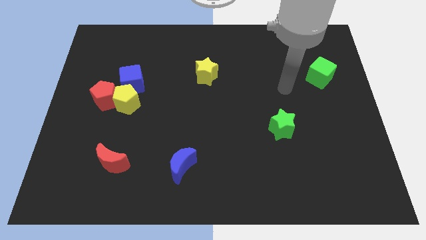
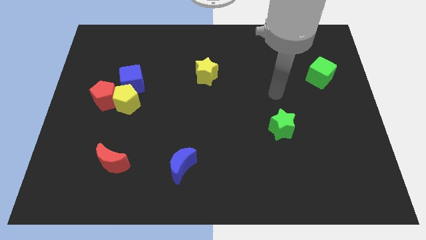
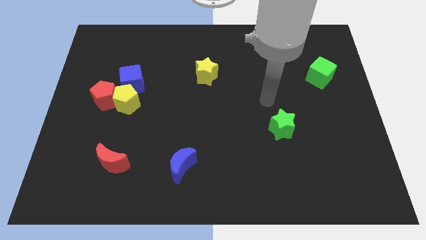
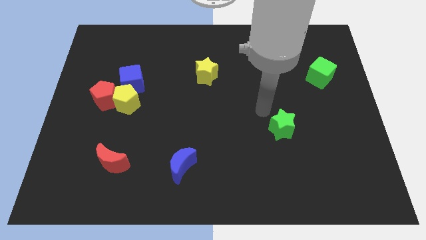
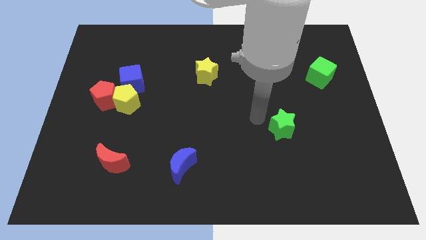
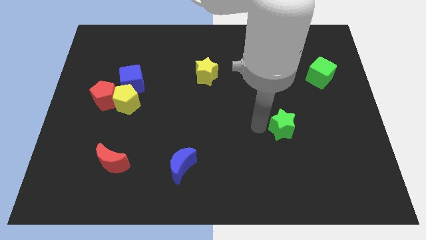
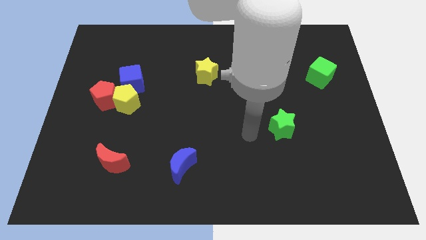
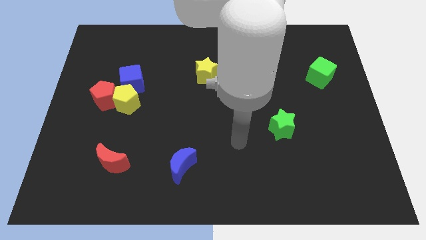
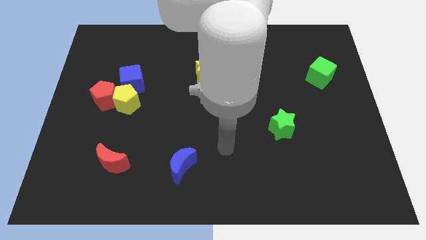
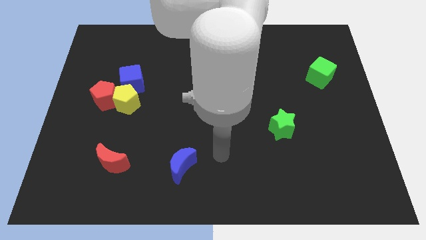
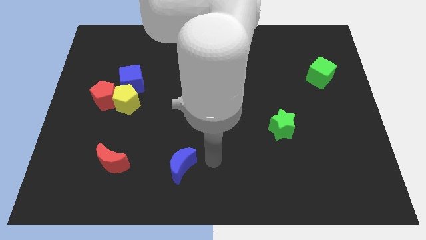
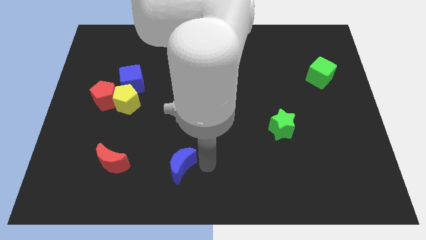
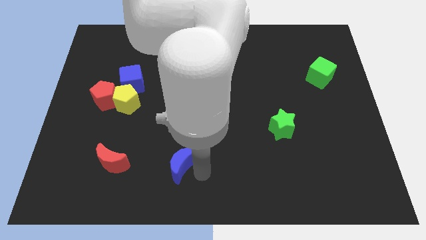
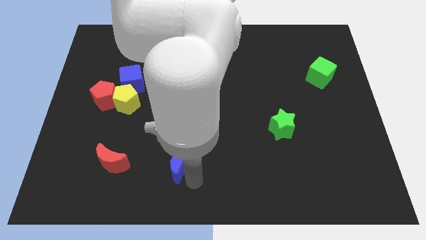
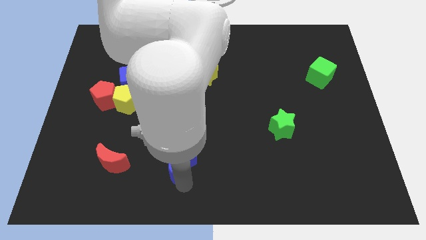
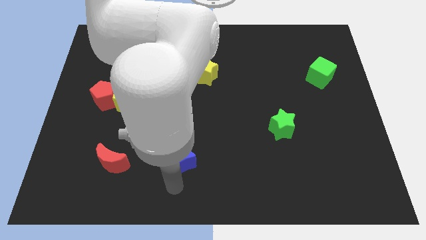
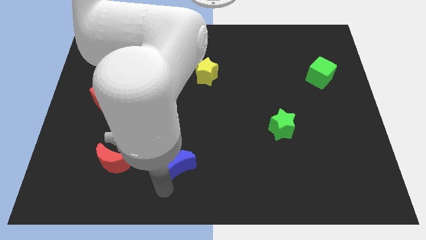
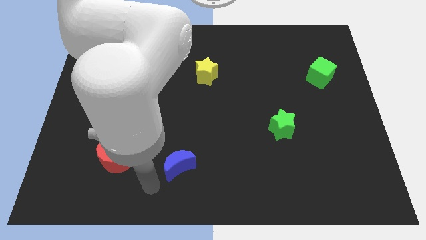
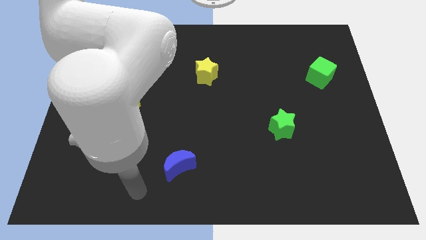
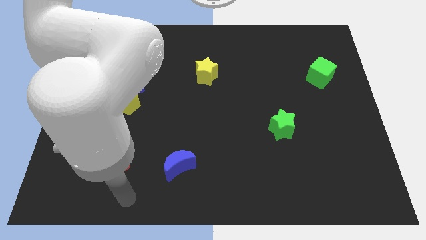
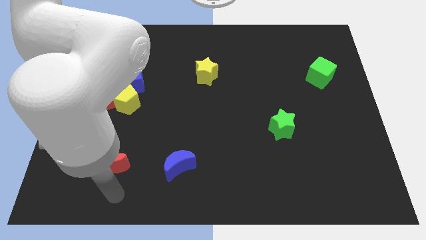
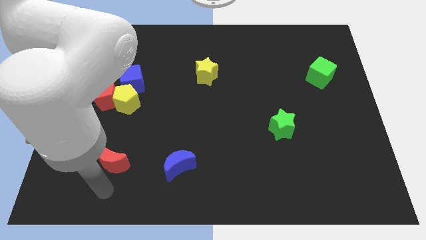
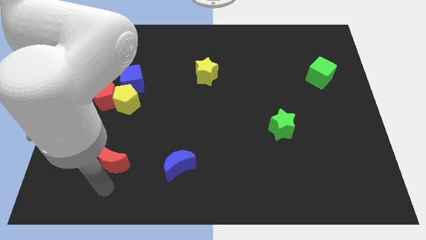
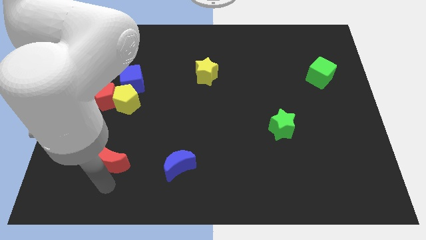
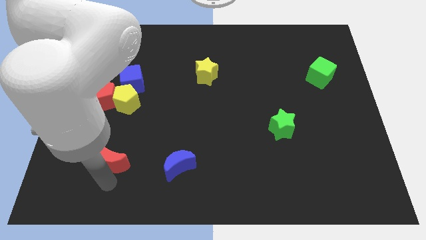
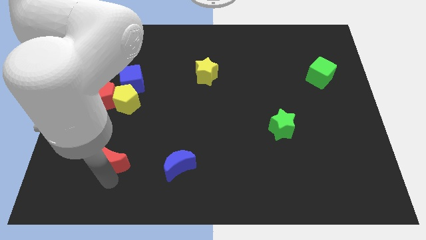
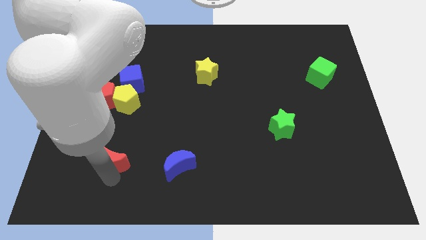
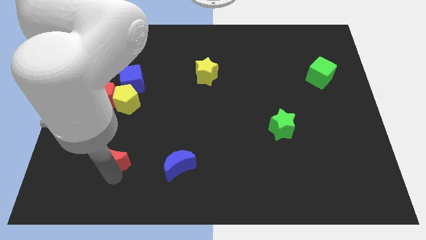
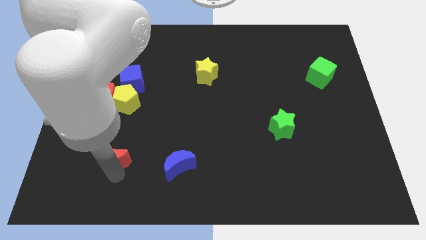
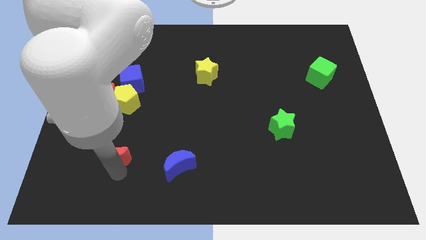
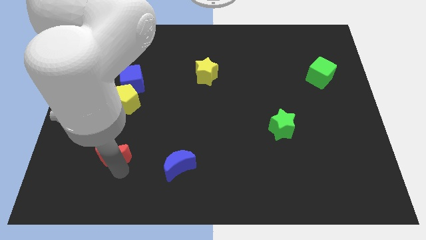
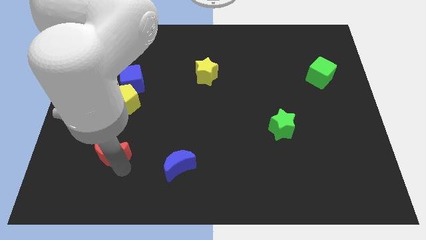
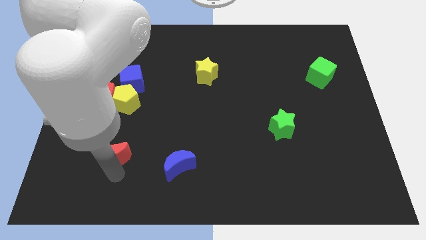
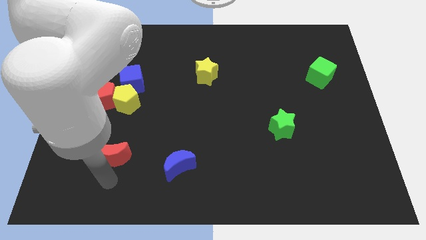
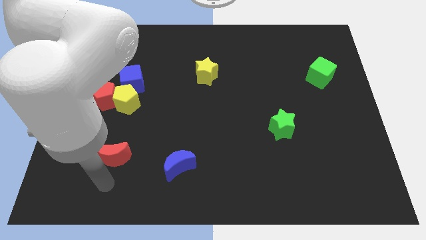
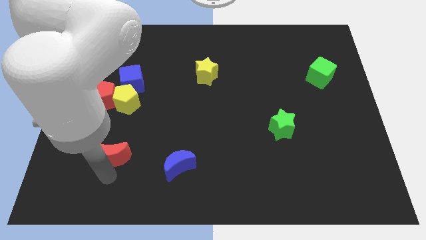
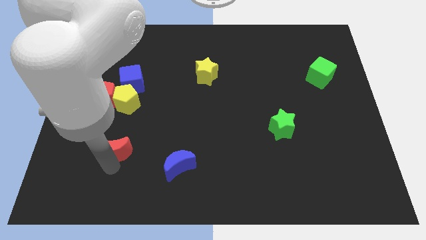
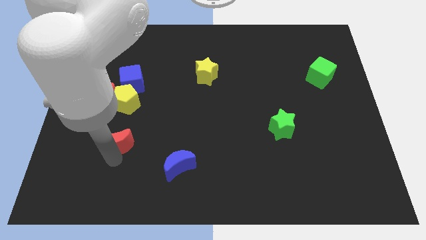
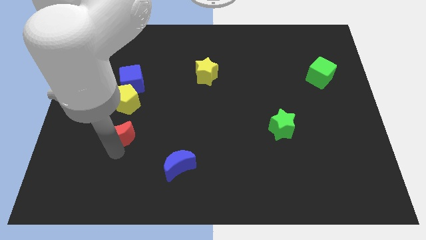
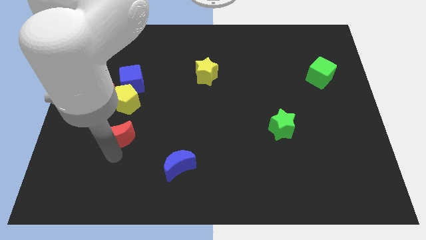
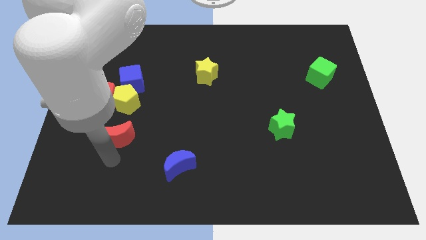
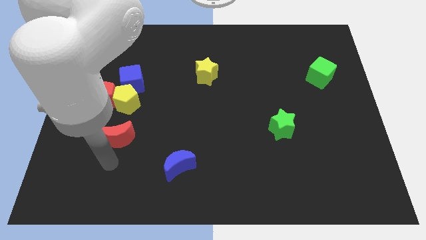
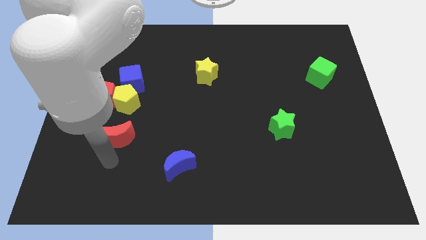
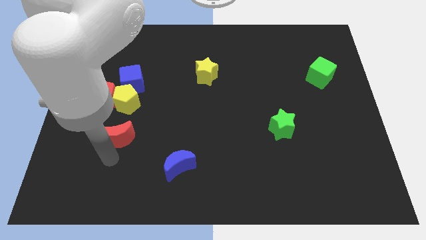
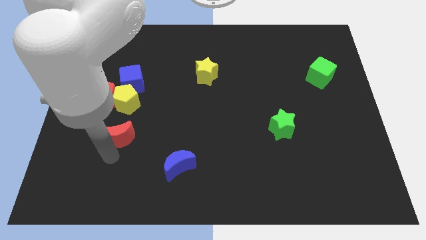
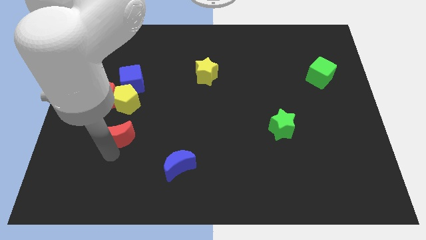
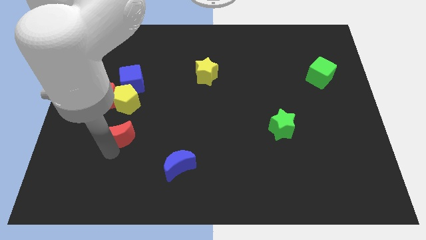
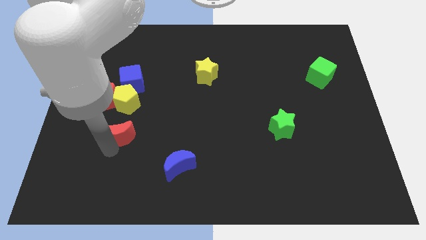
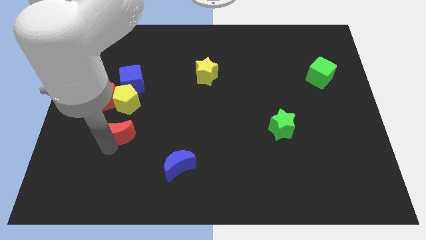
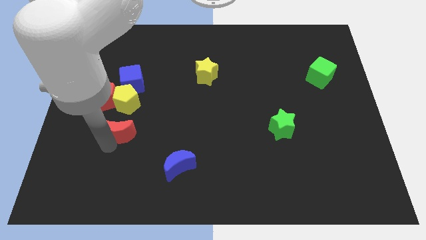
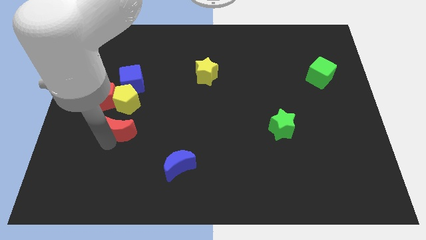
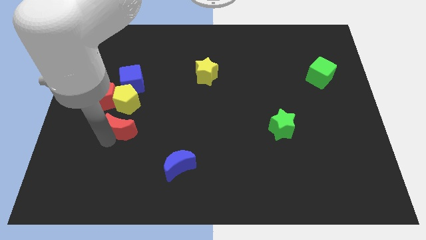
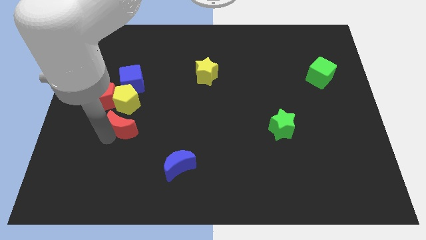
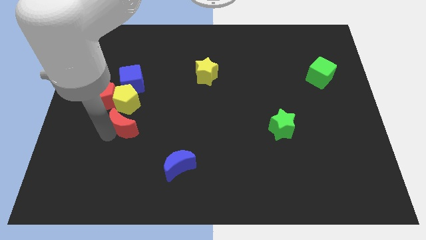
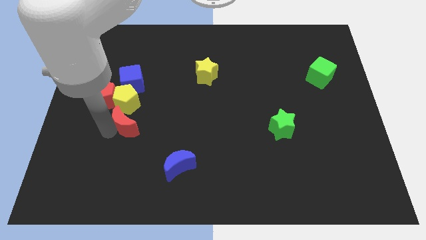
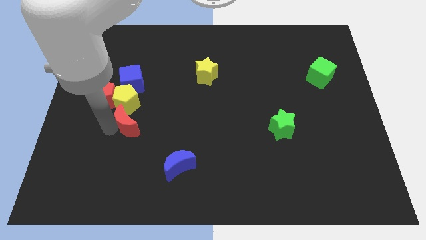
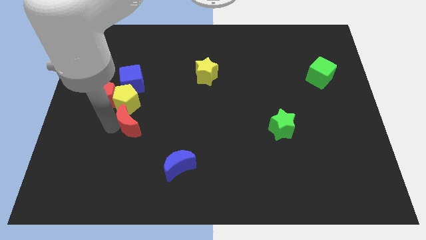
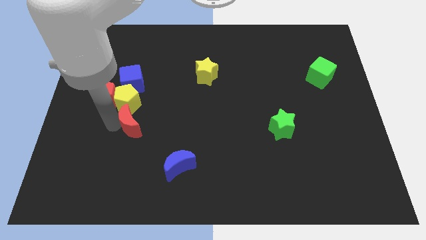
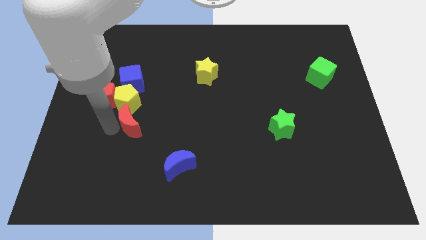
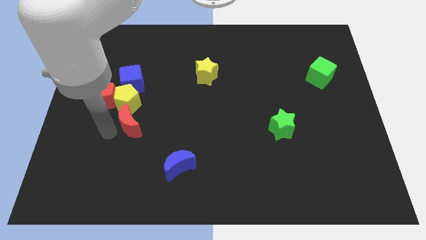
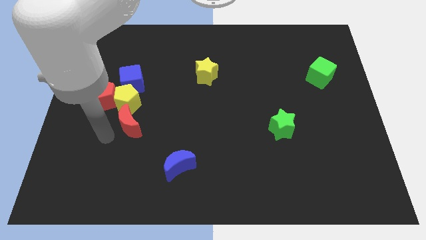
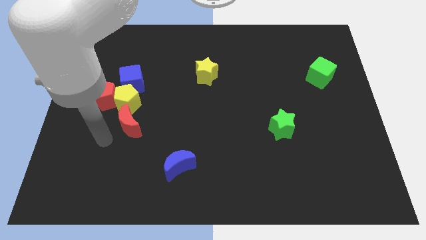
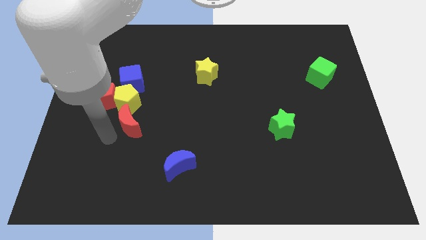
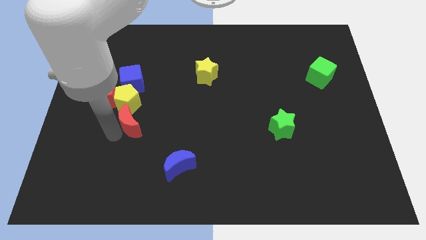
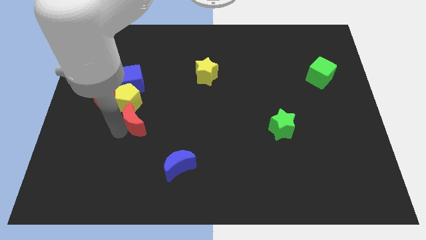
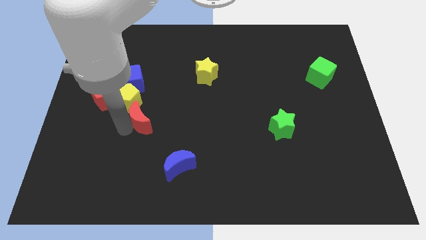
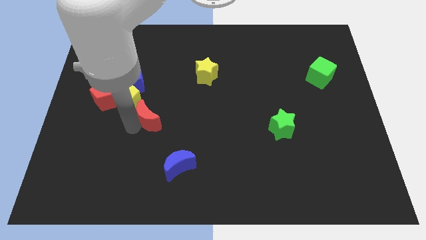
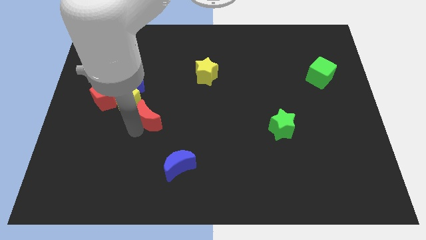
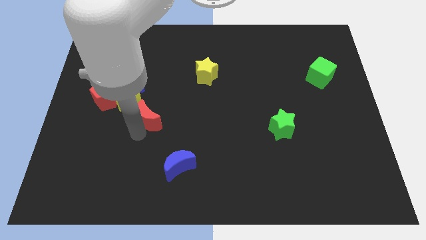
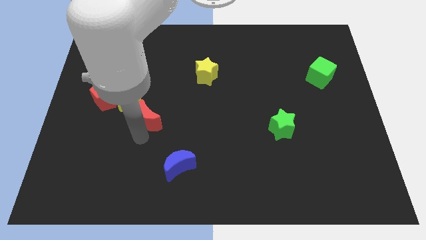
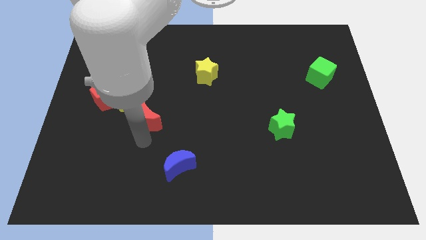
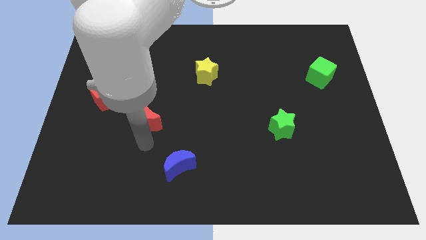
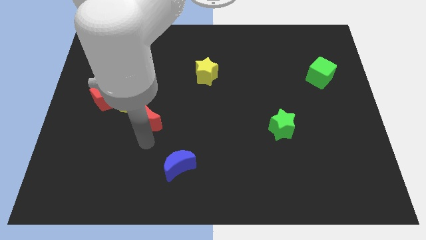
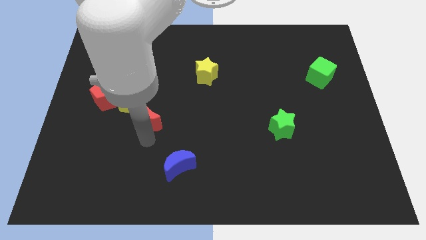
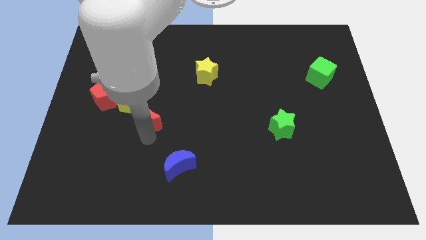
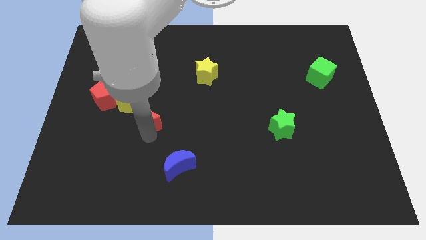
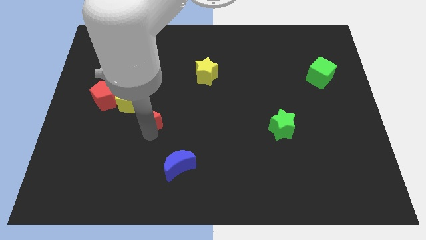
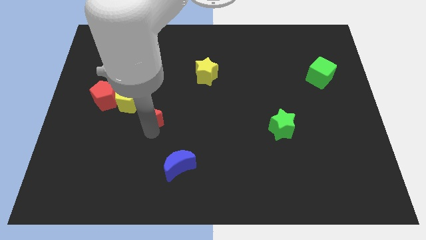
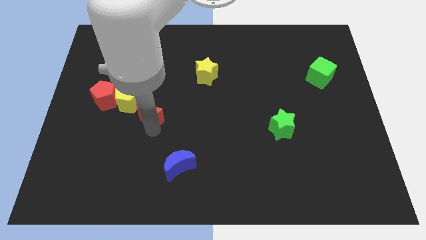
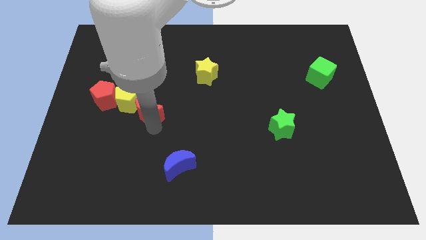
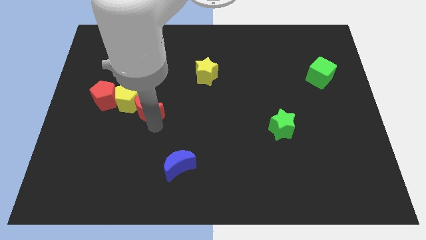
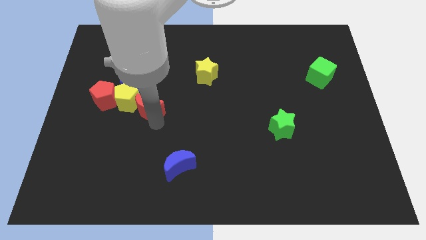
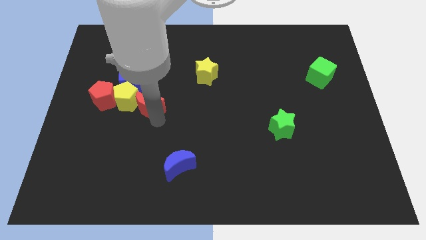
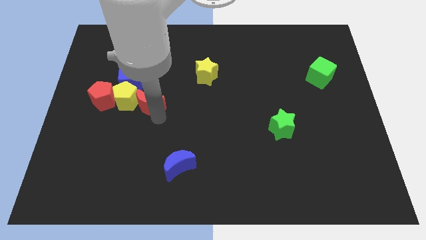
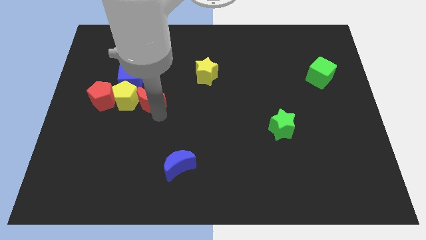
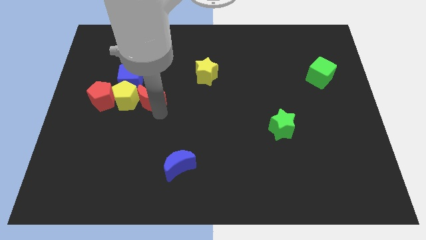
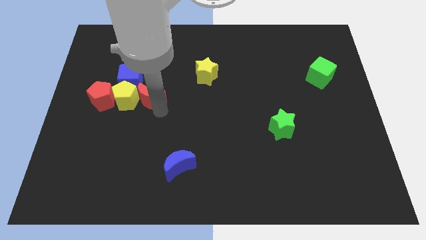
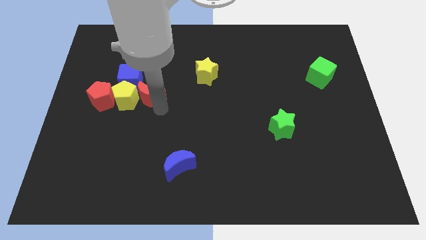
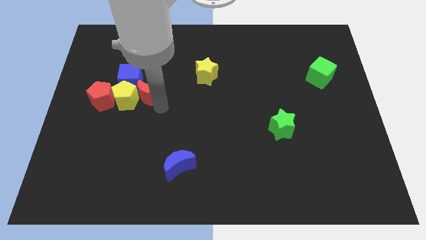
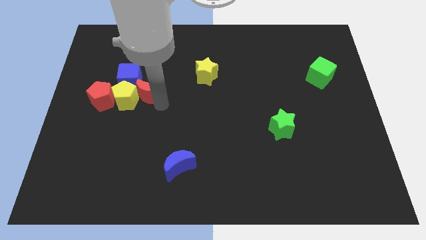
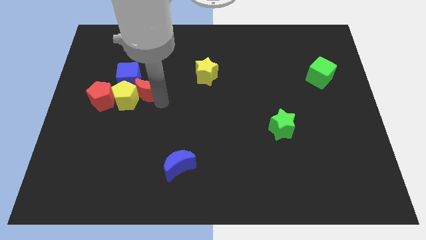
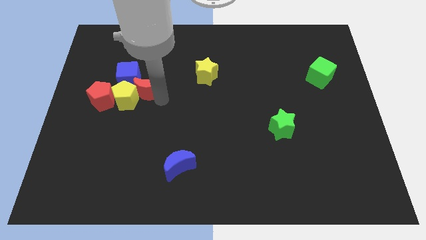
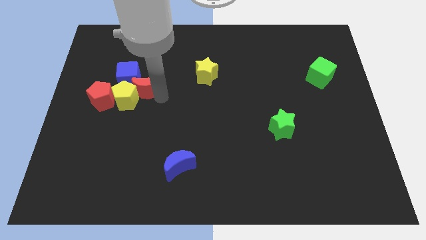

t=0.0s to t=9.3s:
slide the red moon towards the blue cube
